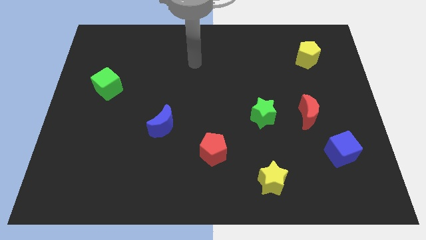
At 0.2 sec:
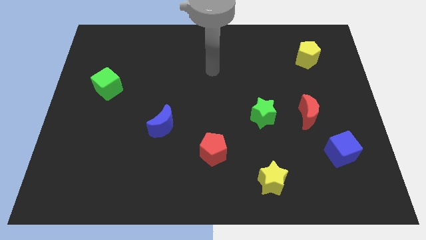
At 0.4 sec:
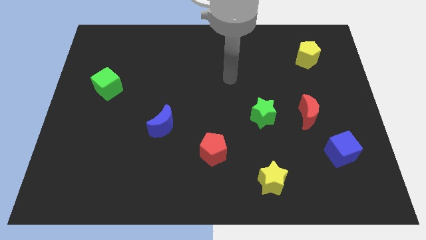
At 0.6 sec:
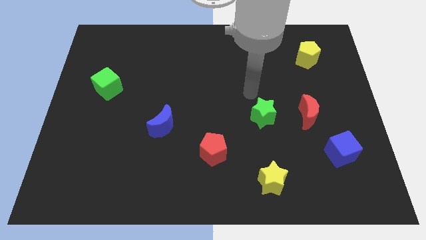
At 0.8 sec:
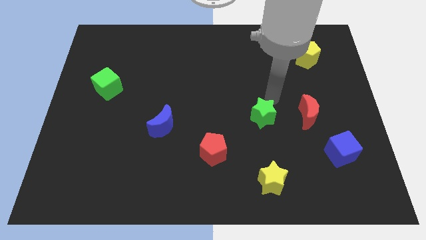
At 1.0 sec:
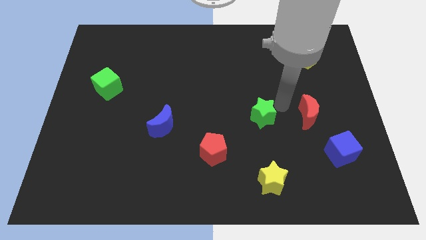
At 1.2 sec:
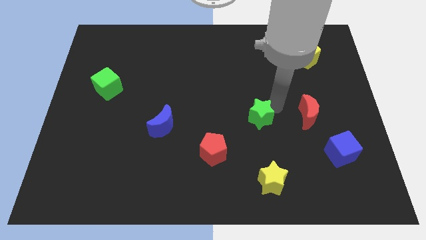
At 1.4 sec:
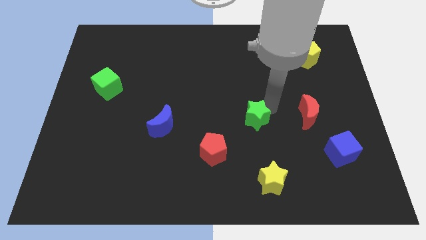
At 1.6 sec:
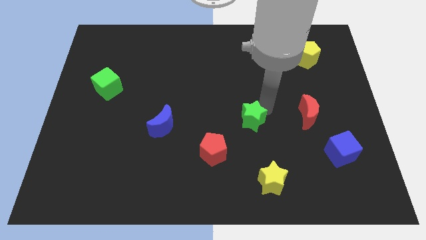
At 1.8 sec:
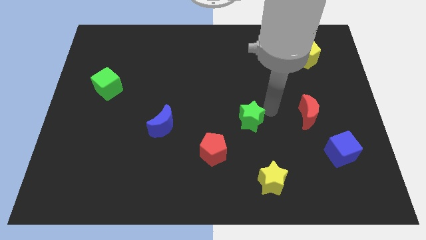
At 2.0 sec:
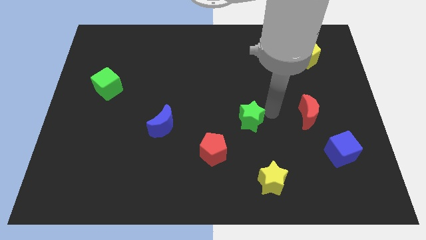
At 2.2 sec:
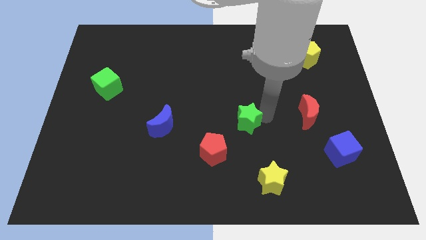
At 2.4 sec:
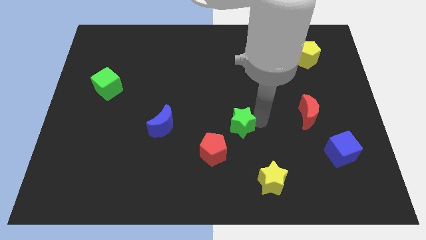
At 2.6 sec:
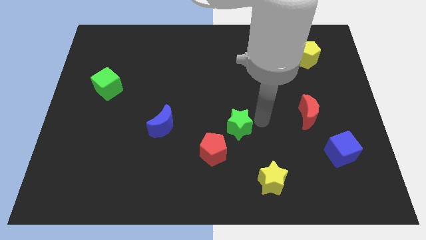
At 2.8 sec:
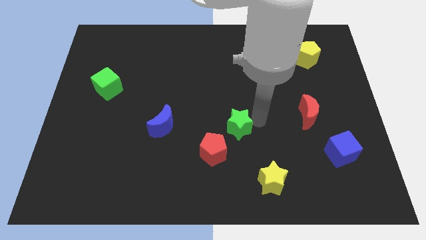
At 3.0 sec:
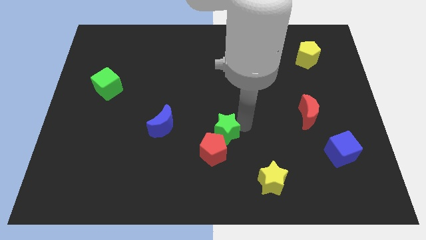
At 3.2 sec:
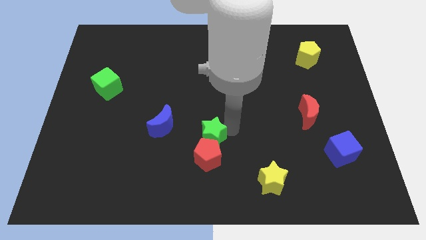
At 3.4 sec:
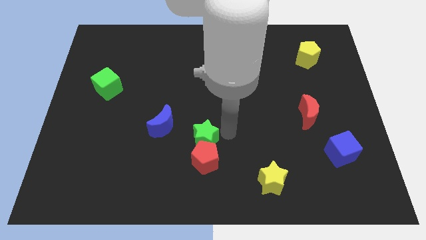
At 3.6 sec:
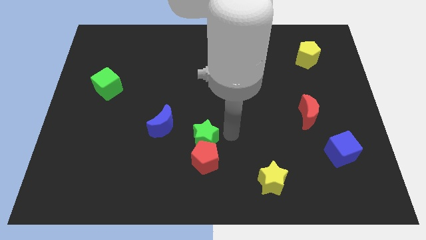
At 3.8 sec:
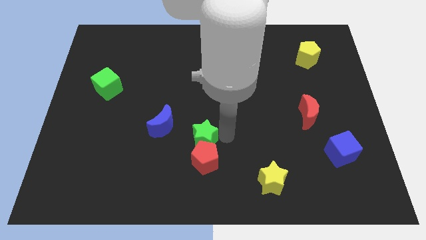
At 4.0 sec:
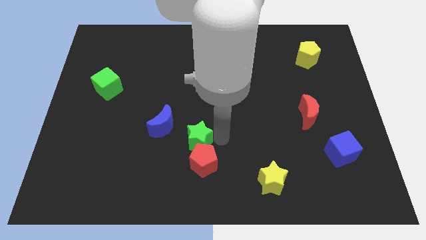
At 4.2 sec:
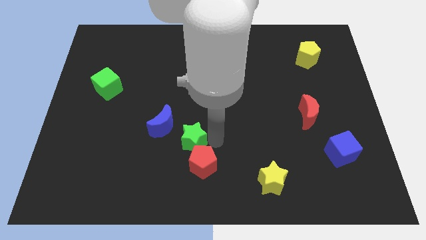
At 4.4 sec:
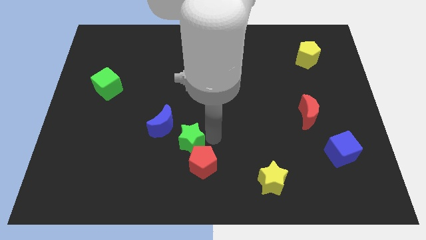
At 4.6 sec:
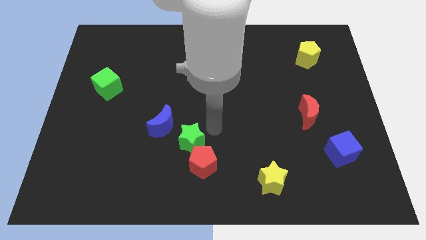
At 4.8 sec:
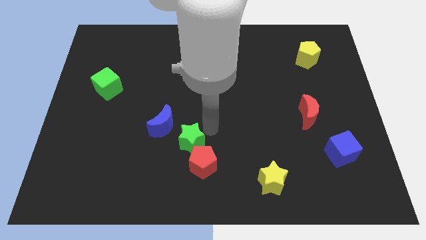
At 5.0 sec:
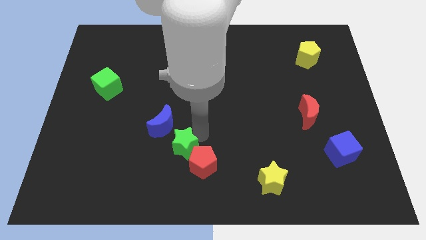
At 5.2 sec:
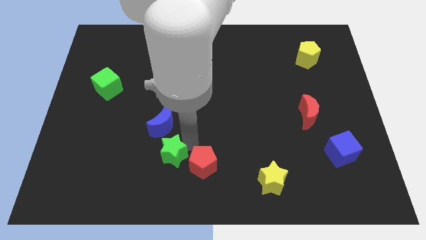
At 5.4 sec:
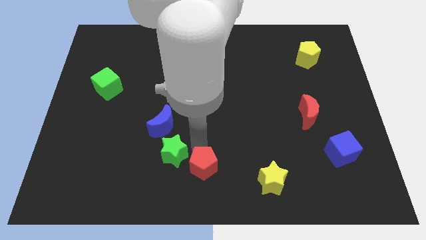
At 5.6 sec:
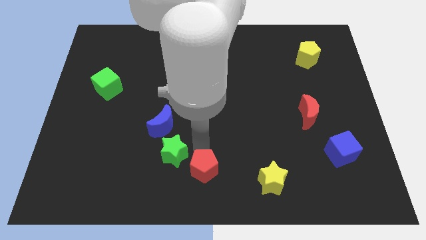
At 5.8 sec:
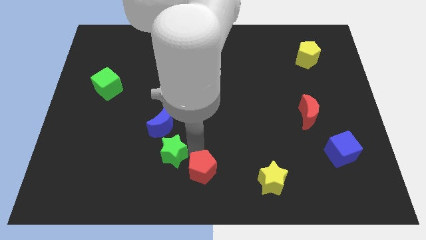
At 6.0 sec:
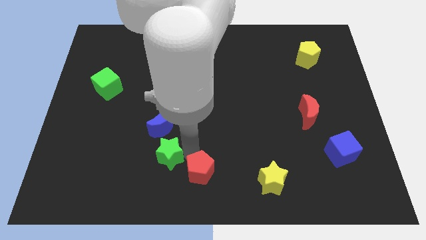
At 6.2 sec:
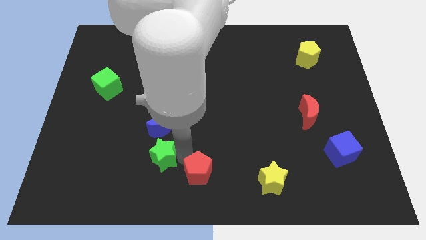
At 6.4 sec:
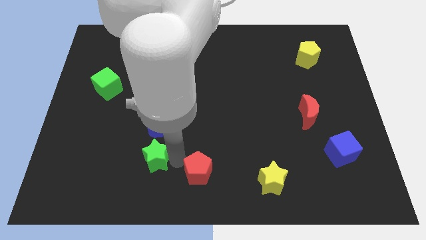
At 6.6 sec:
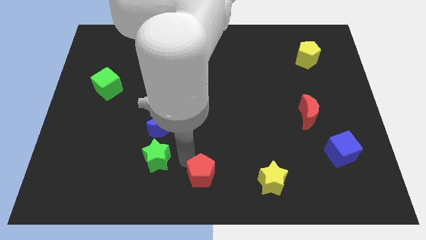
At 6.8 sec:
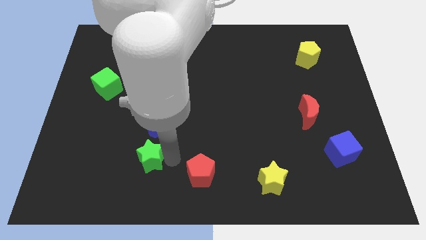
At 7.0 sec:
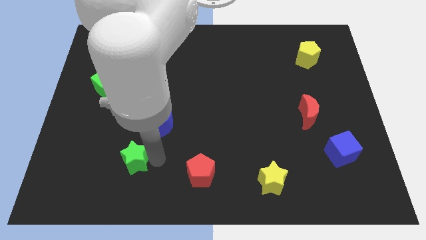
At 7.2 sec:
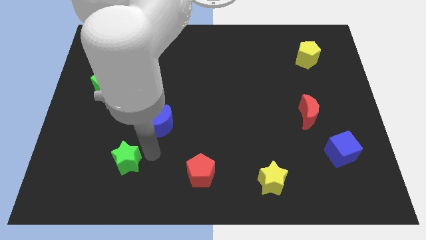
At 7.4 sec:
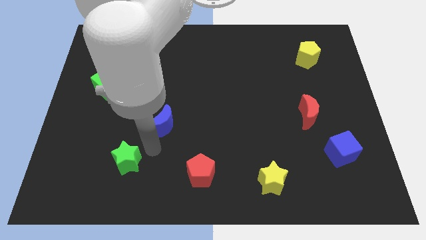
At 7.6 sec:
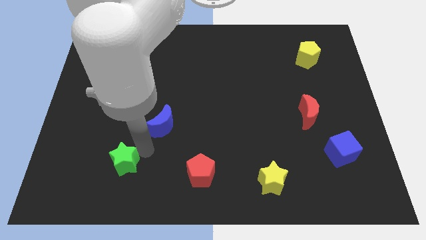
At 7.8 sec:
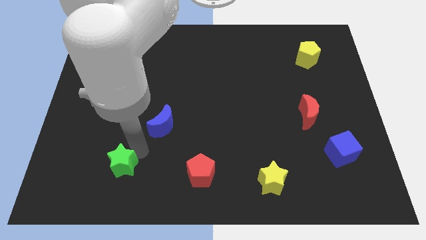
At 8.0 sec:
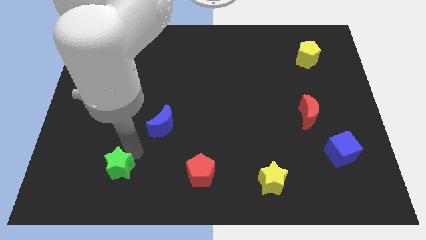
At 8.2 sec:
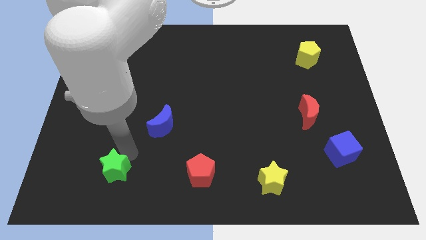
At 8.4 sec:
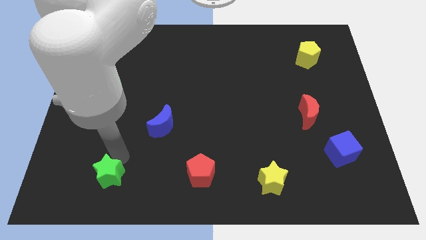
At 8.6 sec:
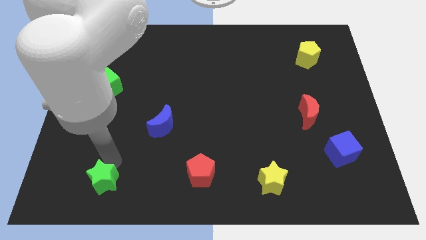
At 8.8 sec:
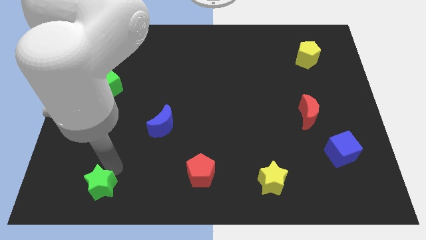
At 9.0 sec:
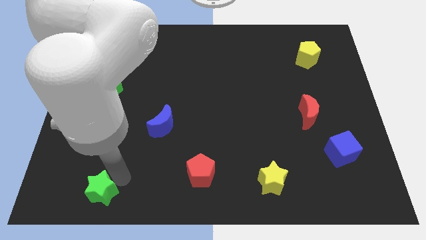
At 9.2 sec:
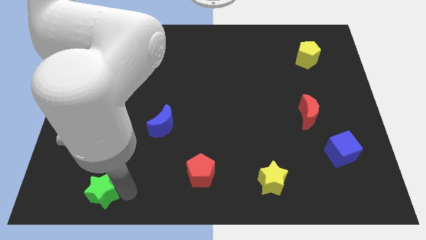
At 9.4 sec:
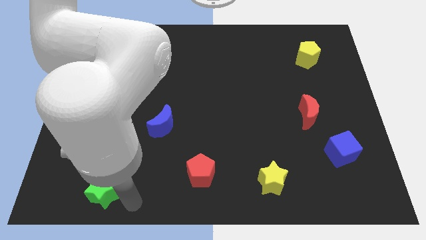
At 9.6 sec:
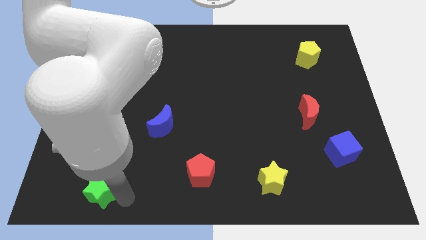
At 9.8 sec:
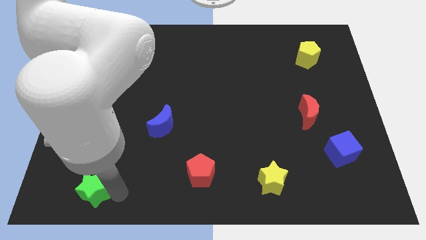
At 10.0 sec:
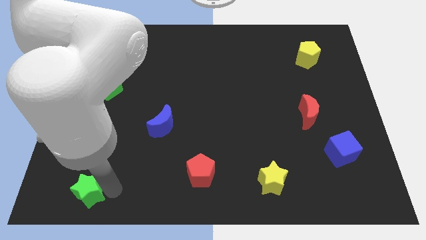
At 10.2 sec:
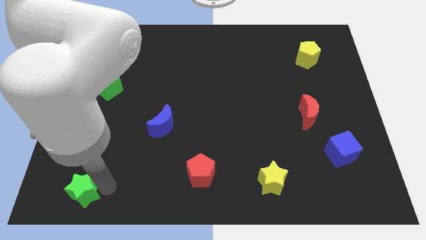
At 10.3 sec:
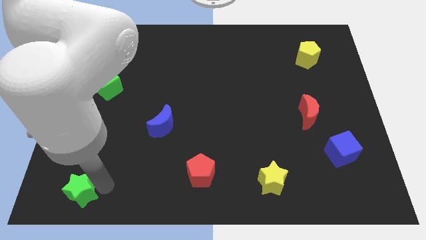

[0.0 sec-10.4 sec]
push the green star to the bottom left of the board

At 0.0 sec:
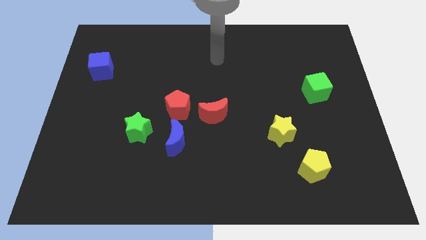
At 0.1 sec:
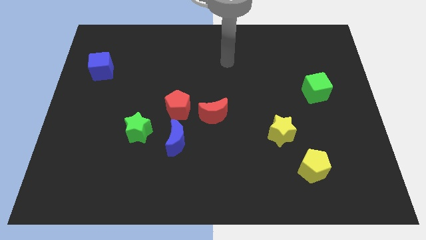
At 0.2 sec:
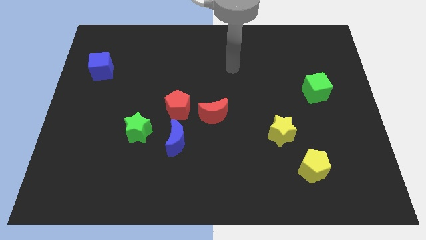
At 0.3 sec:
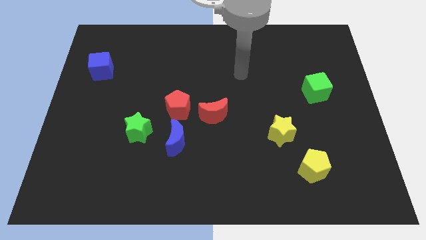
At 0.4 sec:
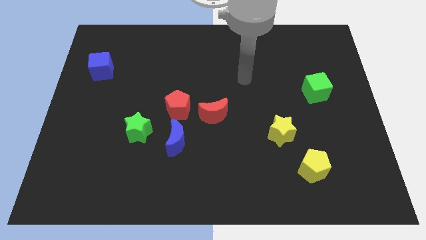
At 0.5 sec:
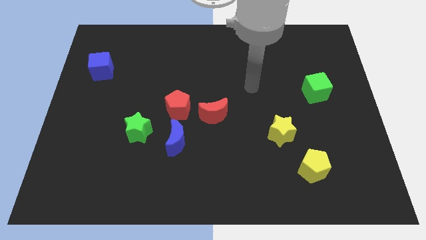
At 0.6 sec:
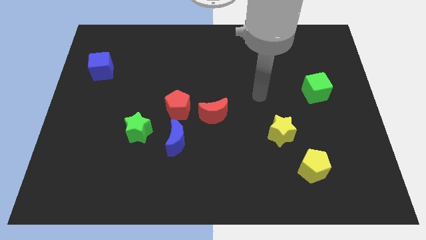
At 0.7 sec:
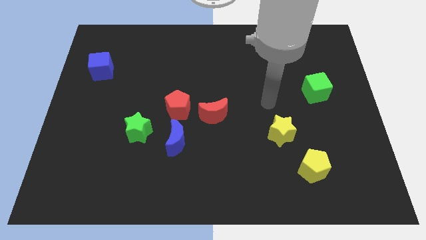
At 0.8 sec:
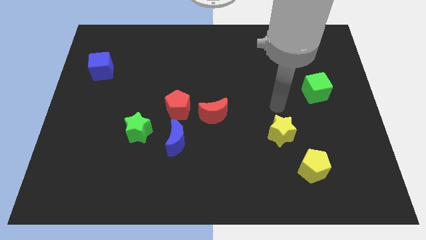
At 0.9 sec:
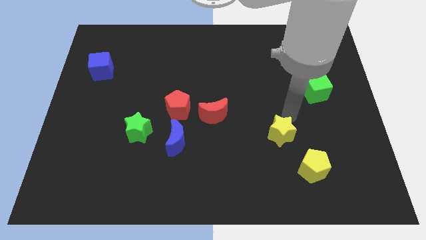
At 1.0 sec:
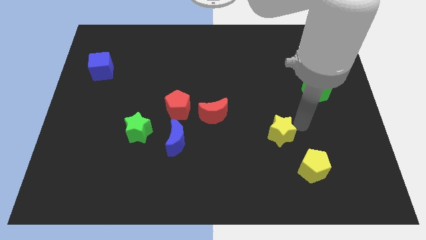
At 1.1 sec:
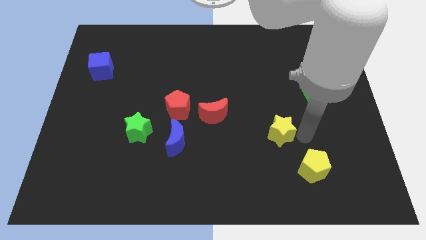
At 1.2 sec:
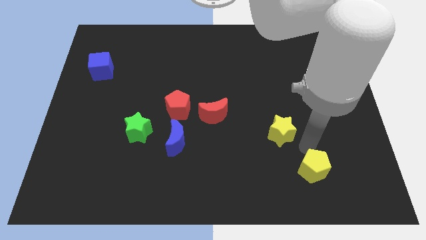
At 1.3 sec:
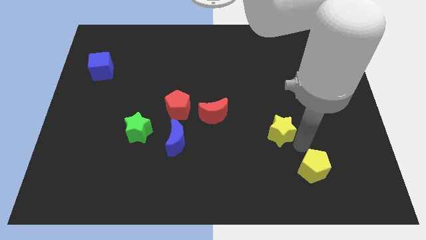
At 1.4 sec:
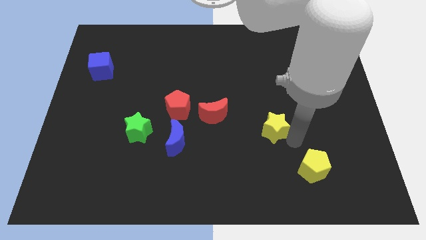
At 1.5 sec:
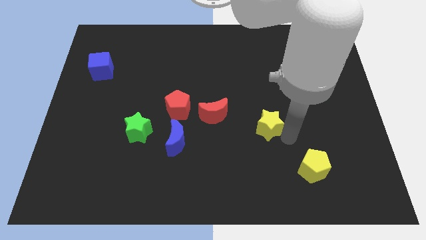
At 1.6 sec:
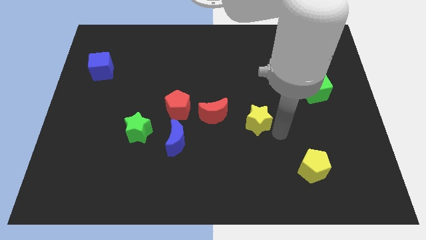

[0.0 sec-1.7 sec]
put the yellow star to the center
